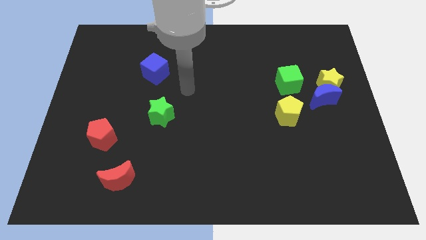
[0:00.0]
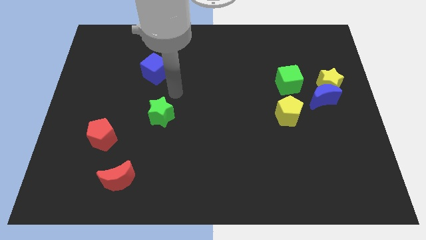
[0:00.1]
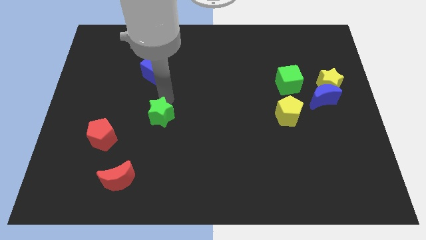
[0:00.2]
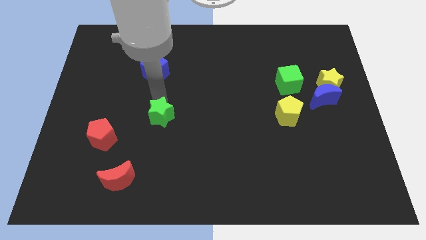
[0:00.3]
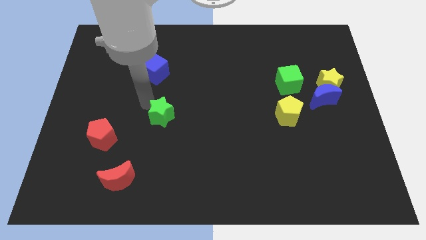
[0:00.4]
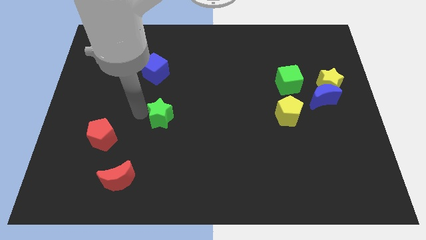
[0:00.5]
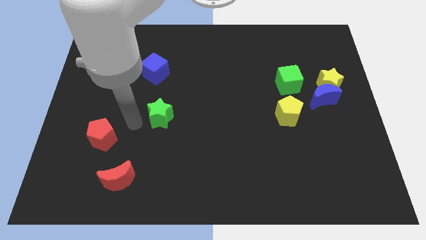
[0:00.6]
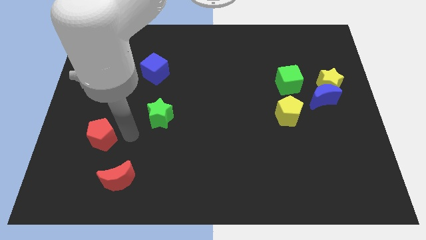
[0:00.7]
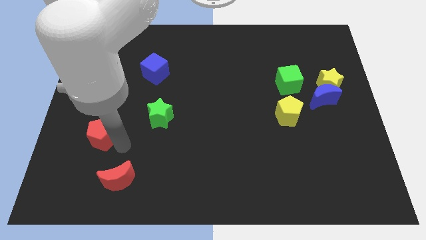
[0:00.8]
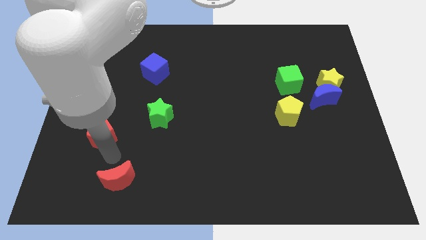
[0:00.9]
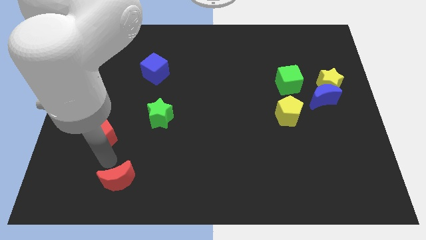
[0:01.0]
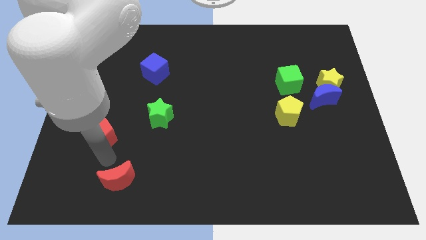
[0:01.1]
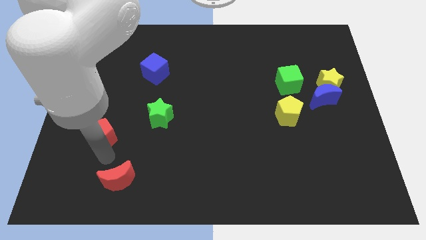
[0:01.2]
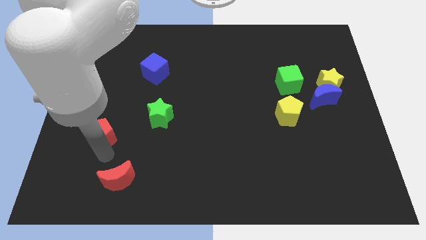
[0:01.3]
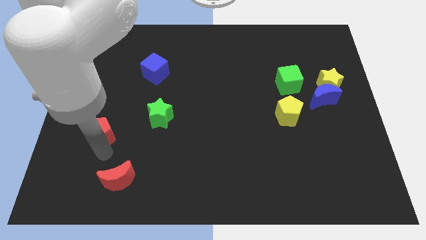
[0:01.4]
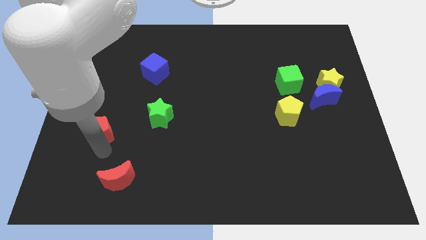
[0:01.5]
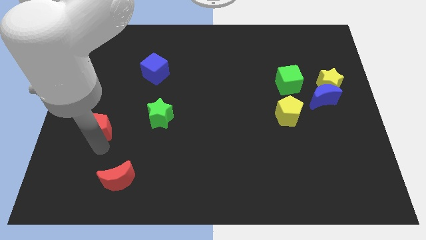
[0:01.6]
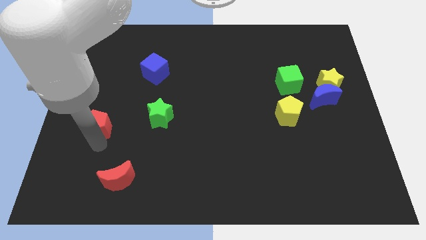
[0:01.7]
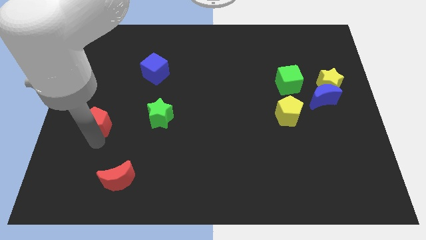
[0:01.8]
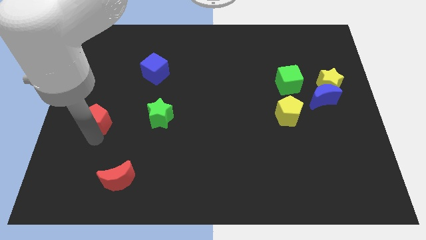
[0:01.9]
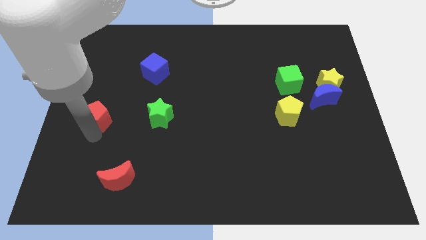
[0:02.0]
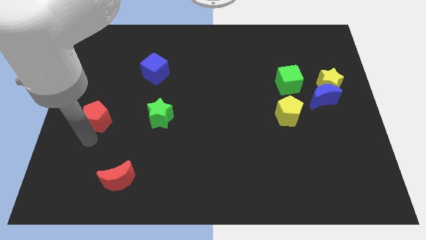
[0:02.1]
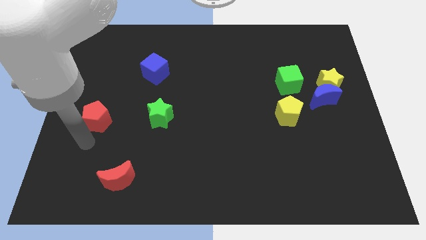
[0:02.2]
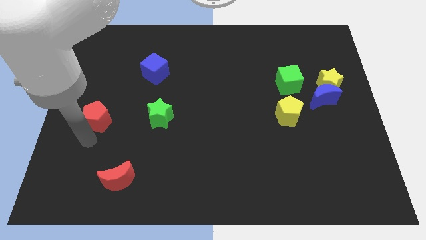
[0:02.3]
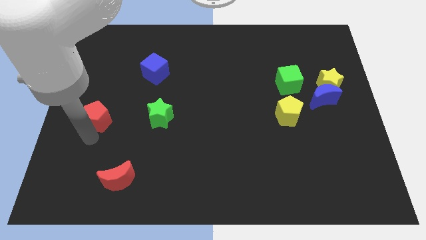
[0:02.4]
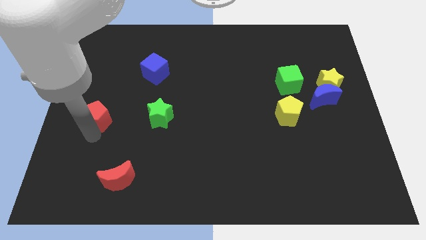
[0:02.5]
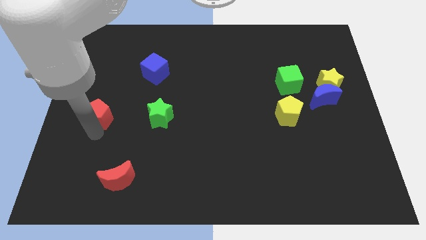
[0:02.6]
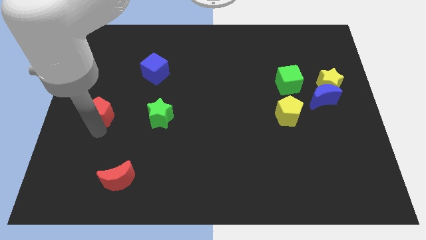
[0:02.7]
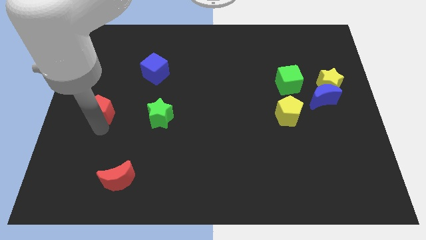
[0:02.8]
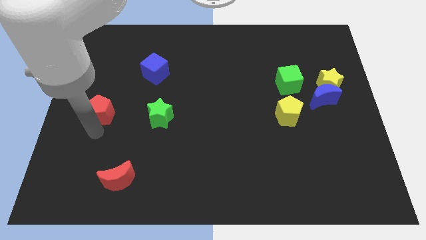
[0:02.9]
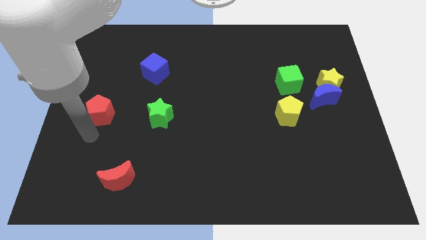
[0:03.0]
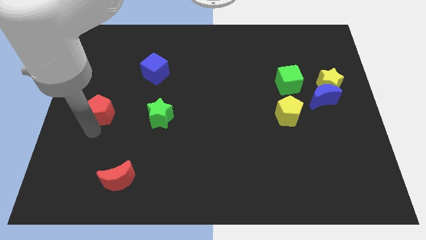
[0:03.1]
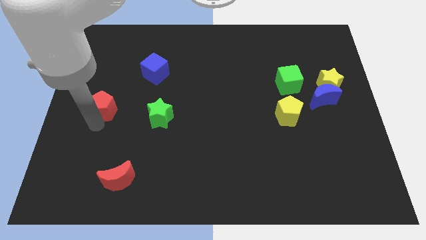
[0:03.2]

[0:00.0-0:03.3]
slide the red pentagon up a little bit

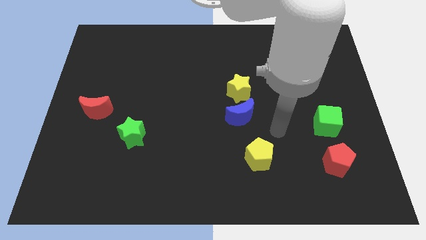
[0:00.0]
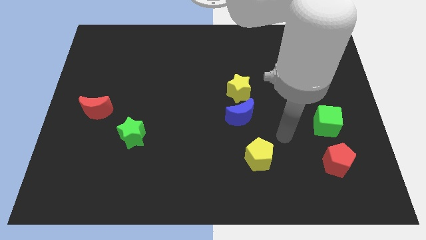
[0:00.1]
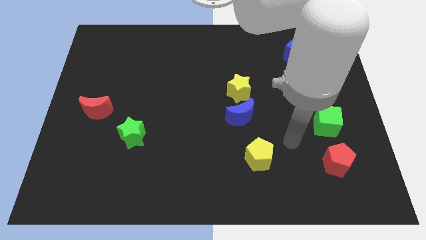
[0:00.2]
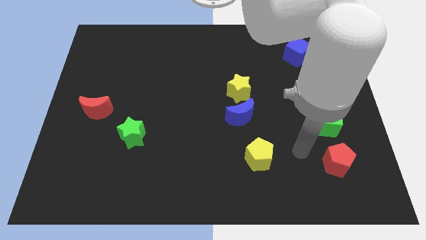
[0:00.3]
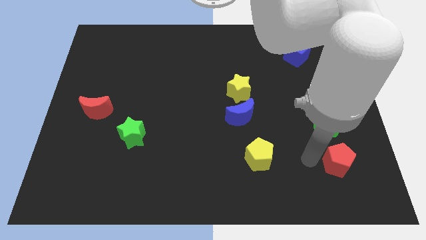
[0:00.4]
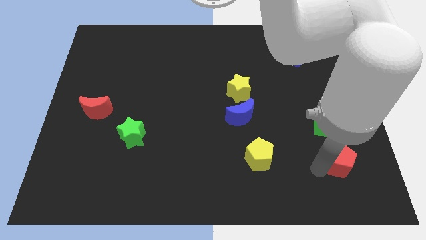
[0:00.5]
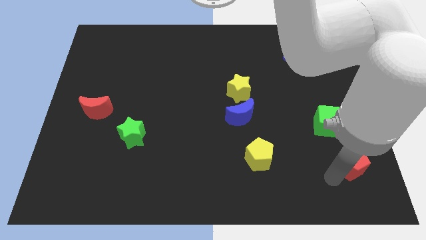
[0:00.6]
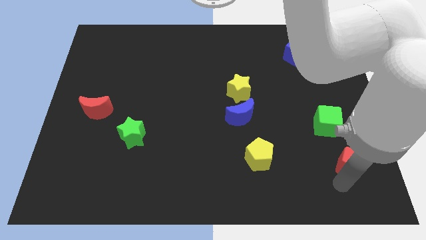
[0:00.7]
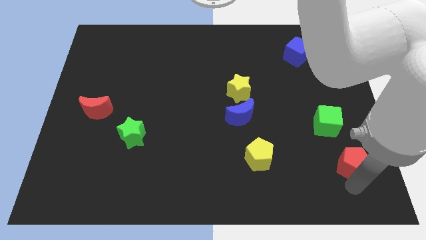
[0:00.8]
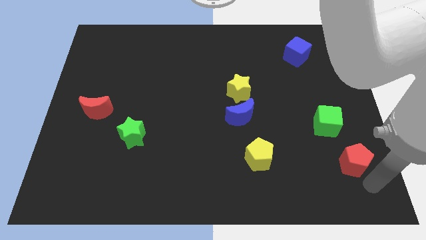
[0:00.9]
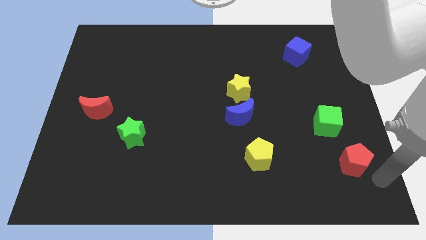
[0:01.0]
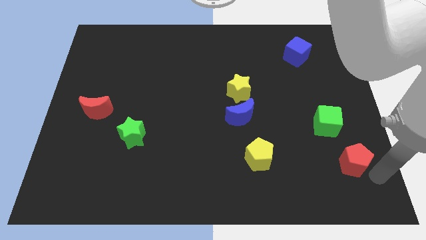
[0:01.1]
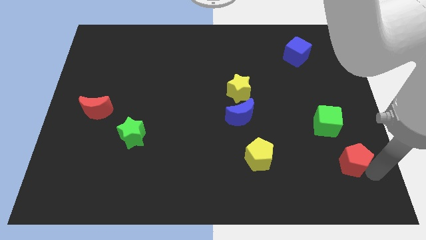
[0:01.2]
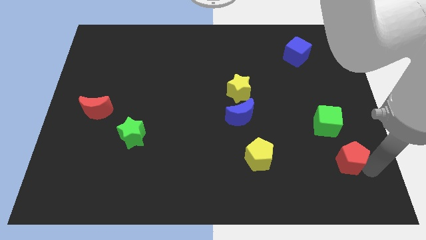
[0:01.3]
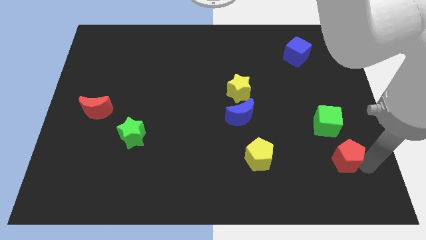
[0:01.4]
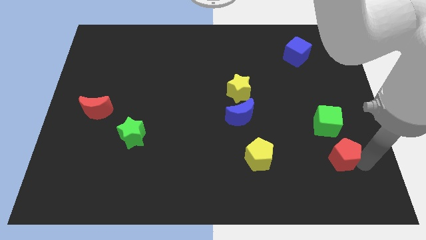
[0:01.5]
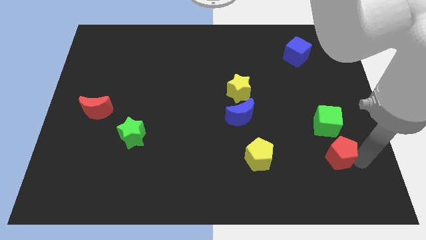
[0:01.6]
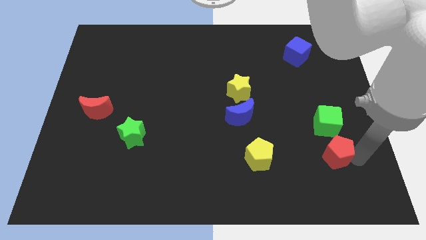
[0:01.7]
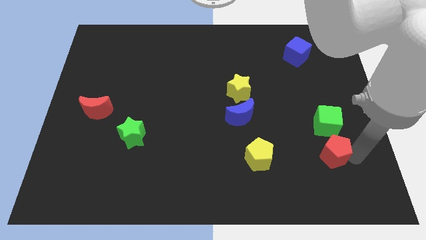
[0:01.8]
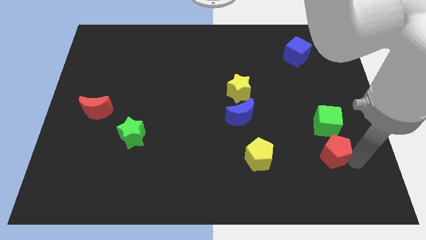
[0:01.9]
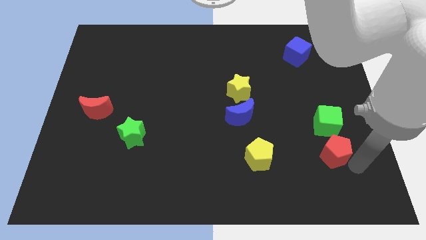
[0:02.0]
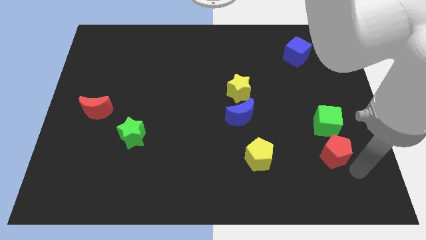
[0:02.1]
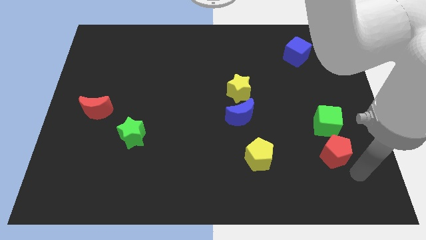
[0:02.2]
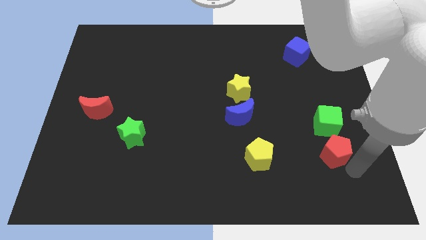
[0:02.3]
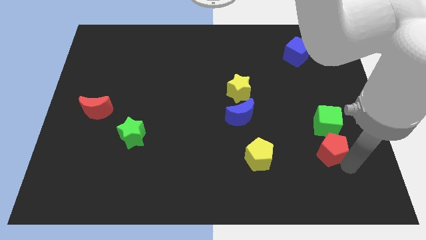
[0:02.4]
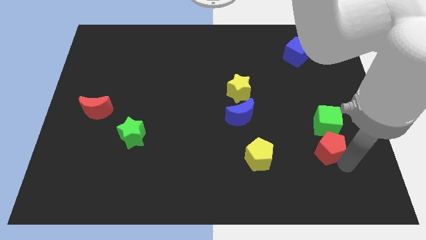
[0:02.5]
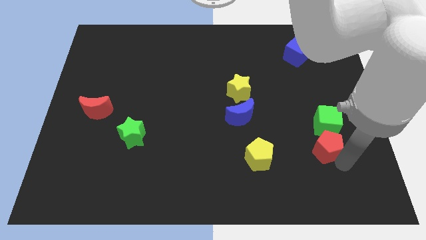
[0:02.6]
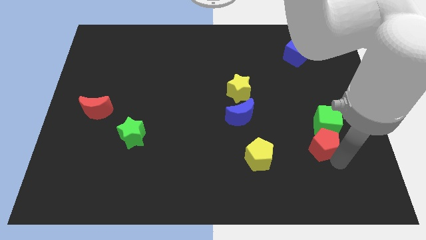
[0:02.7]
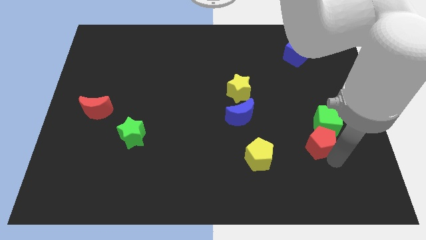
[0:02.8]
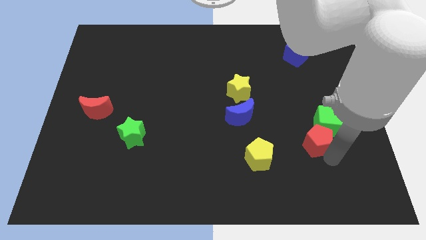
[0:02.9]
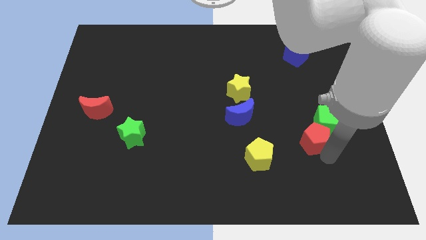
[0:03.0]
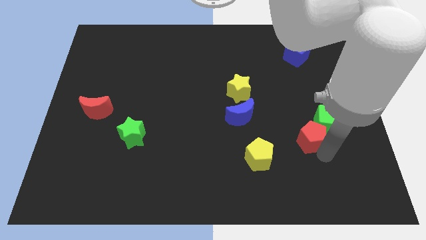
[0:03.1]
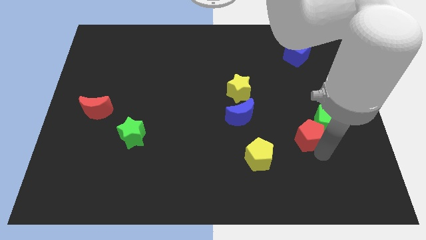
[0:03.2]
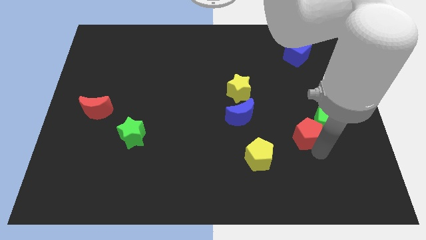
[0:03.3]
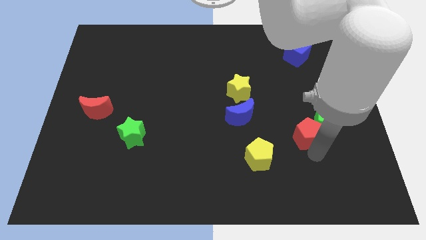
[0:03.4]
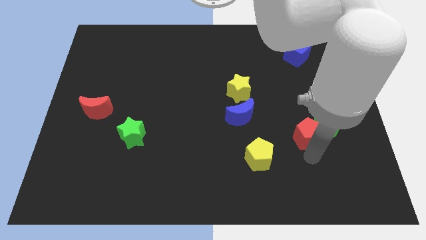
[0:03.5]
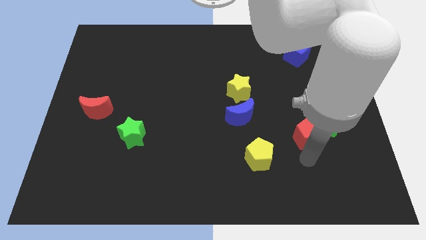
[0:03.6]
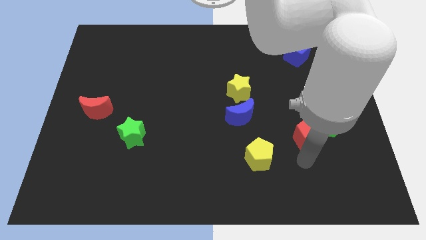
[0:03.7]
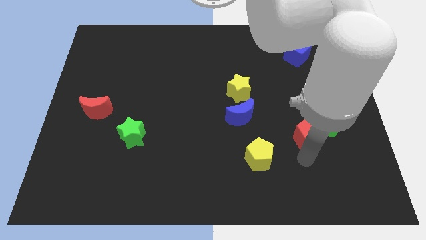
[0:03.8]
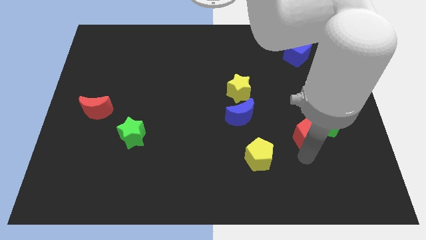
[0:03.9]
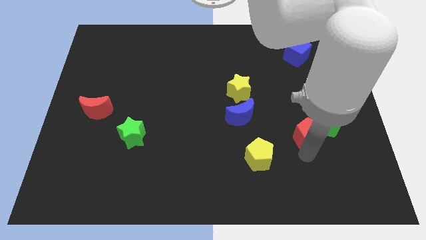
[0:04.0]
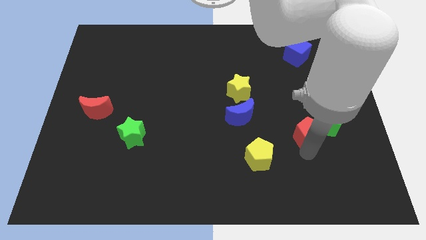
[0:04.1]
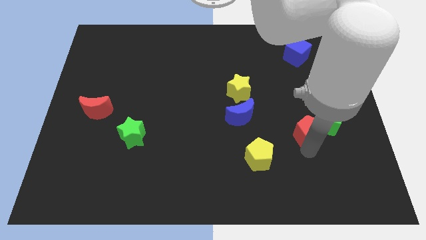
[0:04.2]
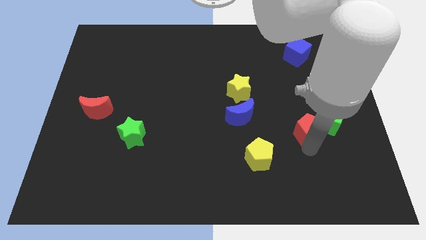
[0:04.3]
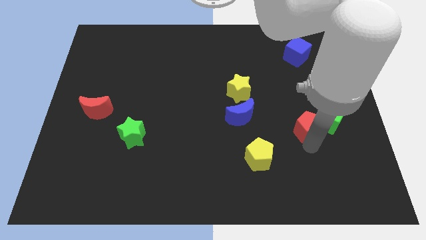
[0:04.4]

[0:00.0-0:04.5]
slightly push the red pentagon upwards

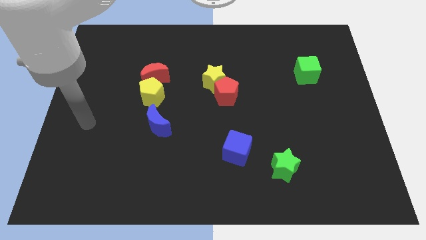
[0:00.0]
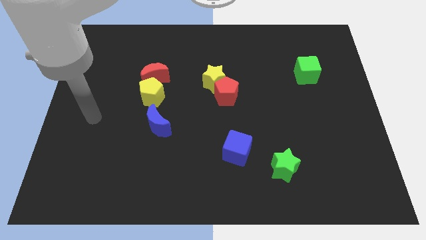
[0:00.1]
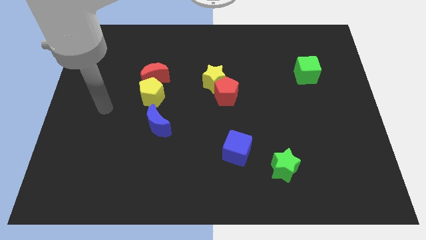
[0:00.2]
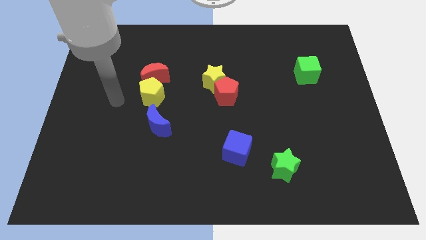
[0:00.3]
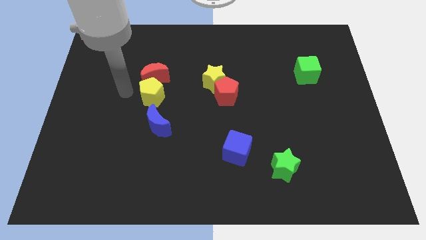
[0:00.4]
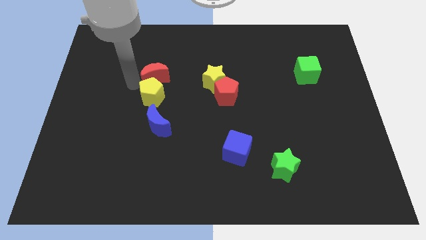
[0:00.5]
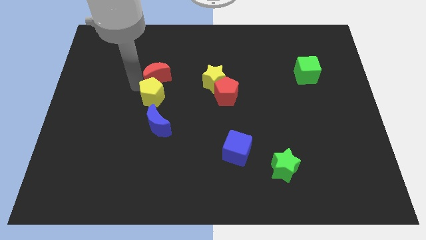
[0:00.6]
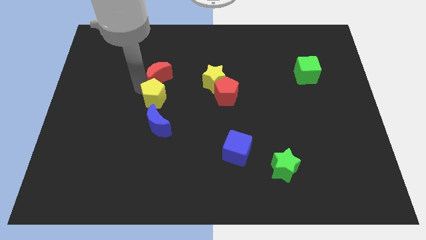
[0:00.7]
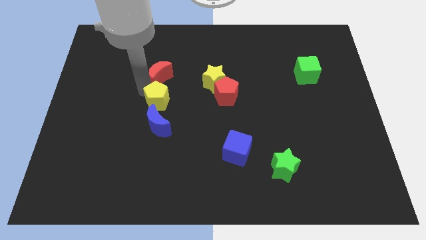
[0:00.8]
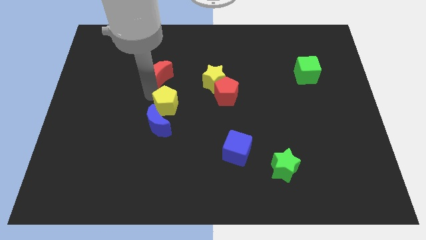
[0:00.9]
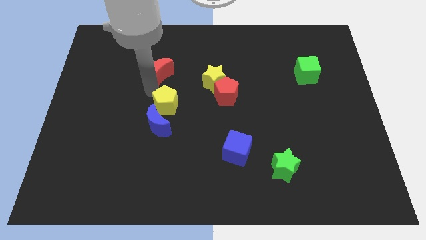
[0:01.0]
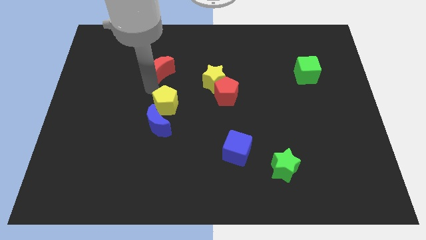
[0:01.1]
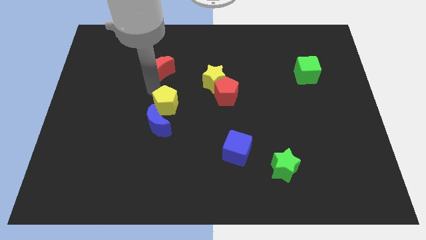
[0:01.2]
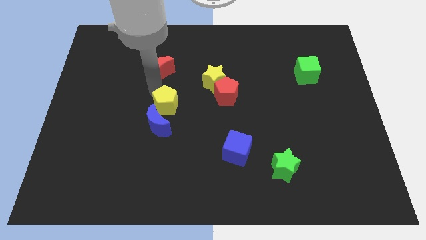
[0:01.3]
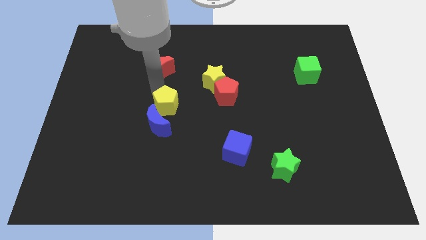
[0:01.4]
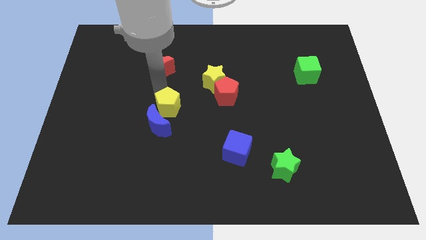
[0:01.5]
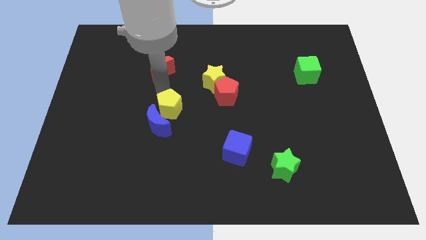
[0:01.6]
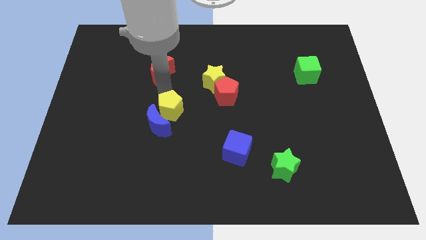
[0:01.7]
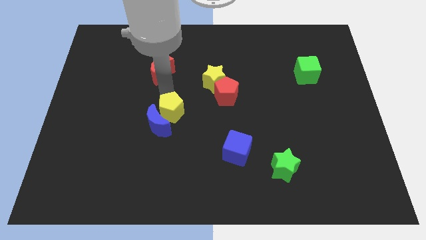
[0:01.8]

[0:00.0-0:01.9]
slightly slide the yellow pentagon downwards and right diagonally
